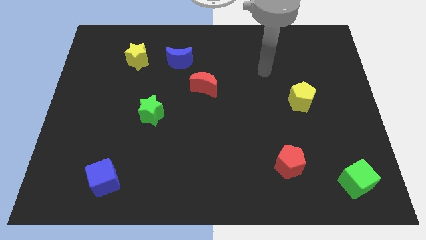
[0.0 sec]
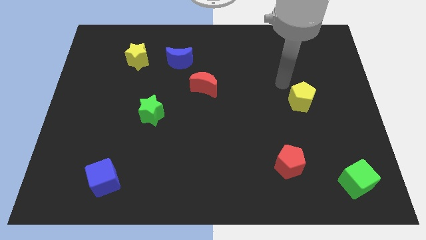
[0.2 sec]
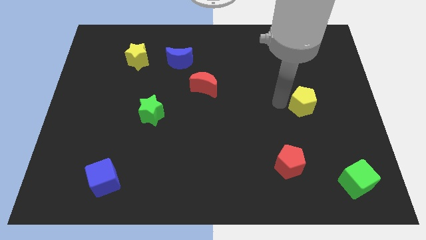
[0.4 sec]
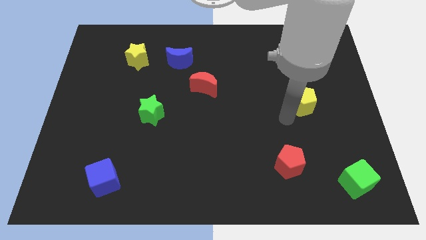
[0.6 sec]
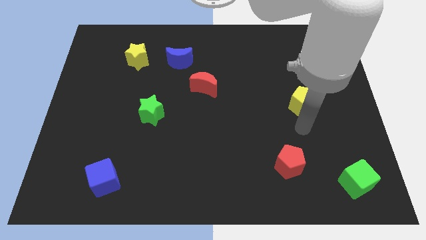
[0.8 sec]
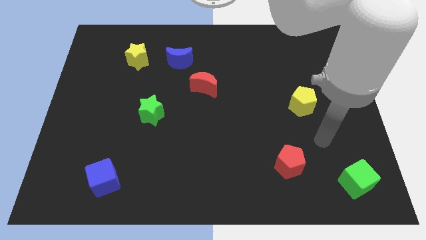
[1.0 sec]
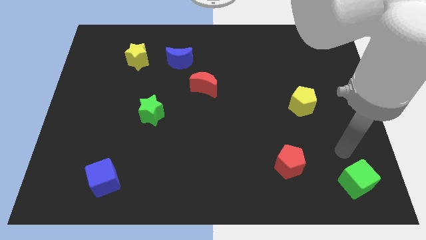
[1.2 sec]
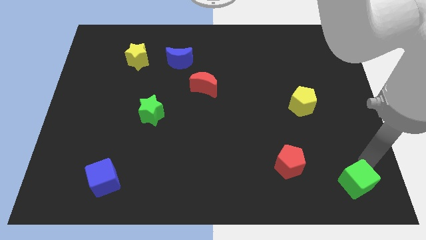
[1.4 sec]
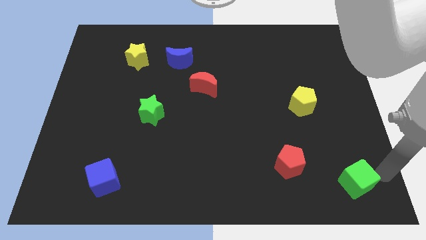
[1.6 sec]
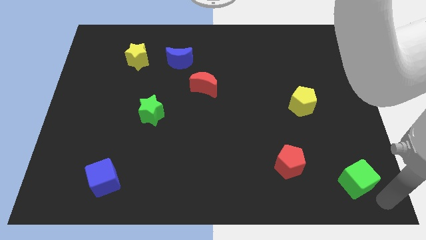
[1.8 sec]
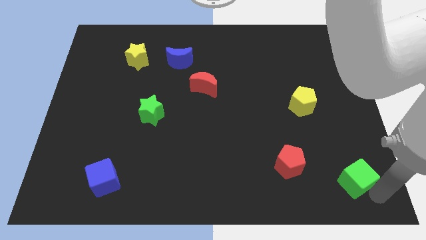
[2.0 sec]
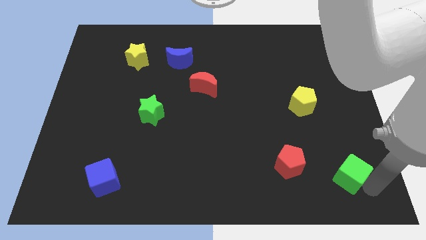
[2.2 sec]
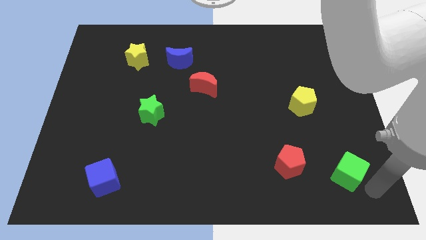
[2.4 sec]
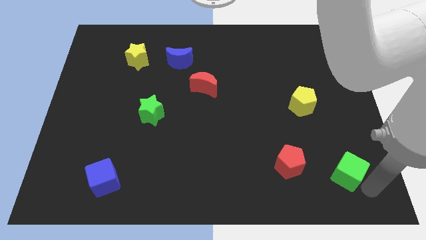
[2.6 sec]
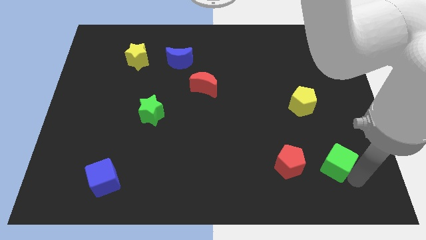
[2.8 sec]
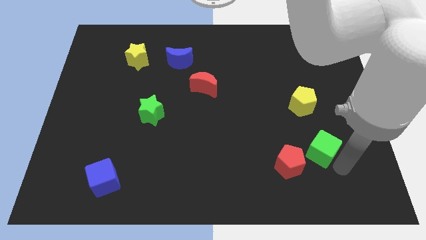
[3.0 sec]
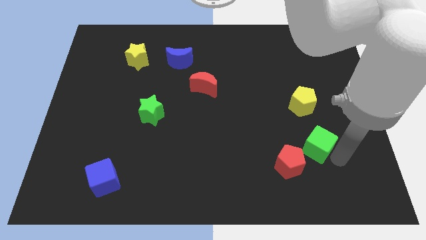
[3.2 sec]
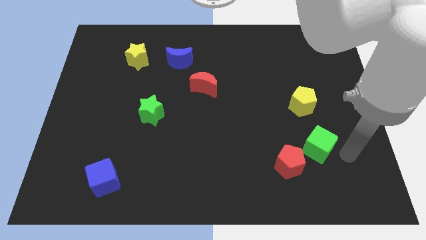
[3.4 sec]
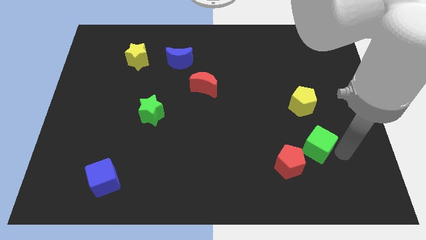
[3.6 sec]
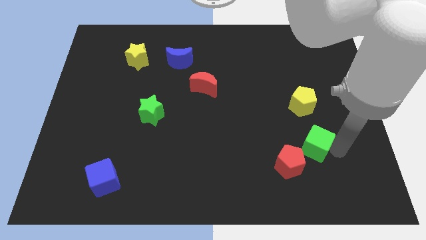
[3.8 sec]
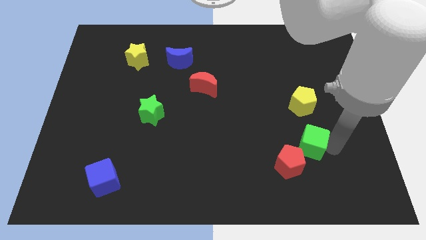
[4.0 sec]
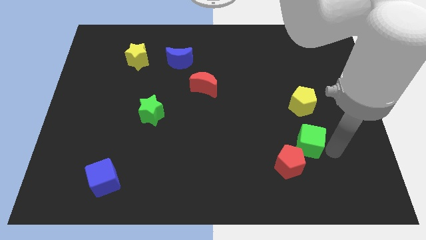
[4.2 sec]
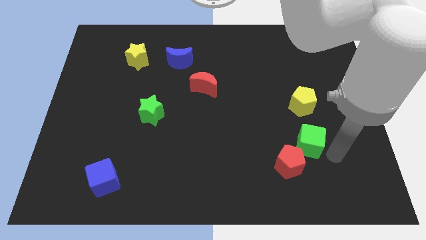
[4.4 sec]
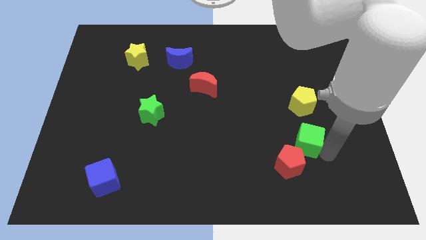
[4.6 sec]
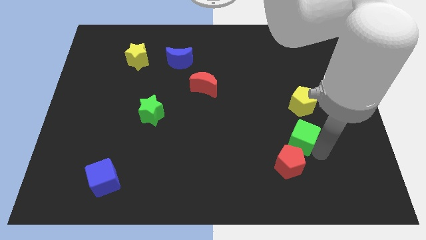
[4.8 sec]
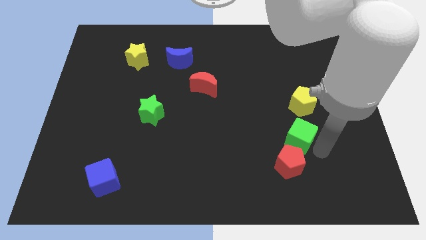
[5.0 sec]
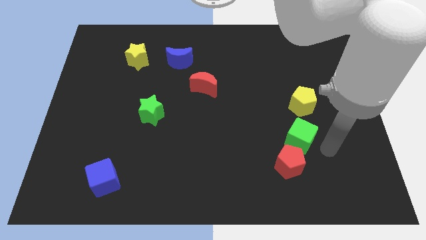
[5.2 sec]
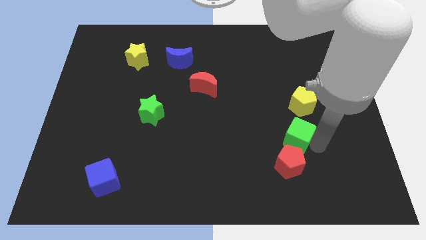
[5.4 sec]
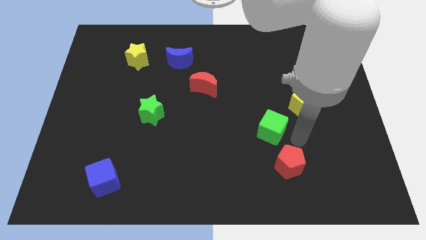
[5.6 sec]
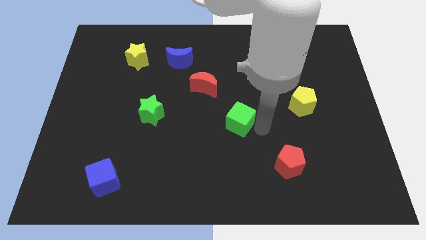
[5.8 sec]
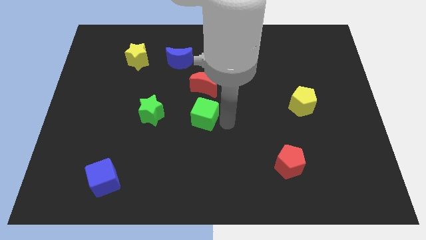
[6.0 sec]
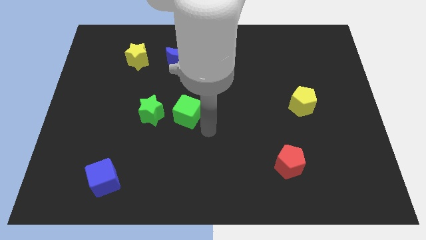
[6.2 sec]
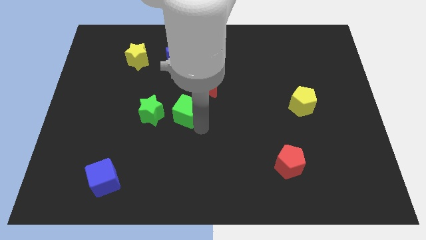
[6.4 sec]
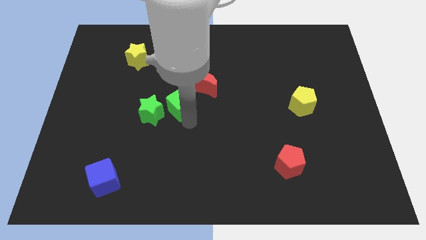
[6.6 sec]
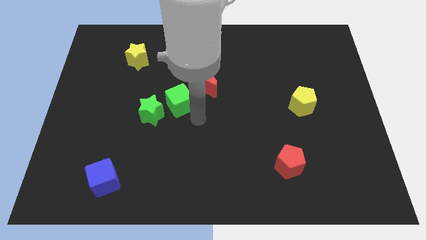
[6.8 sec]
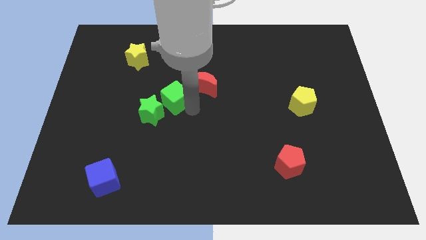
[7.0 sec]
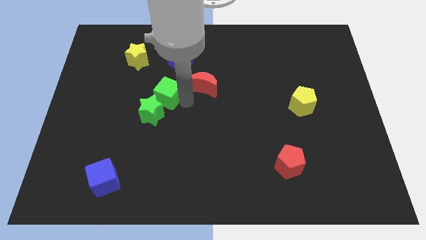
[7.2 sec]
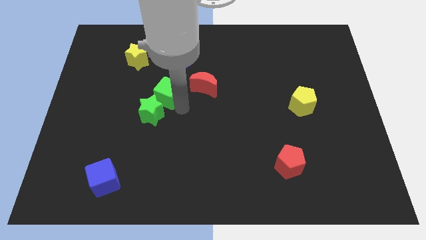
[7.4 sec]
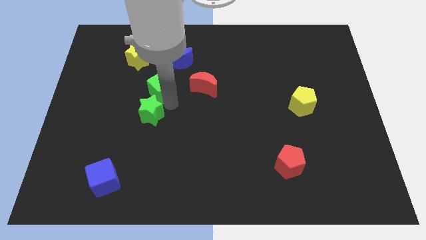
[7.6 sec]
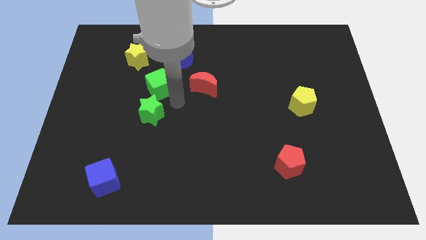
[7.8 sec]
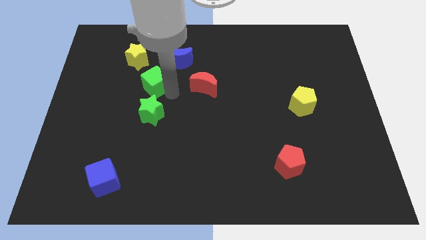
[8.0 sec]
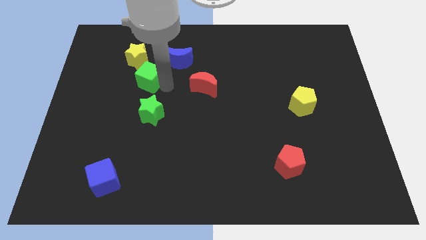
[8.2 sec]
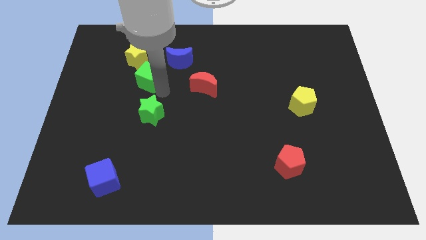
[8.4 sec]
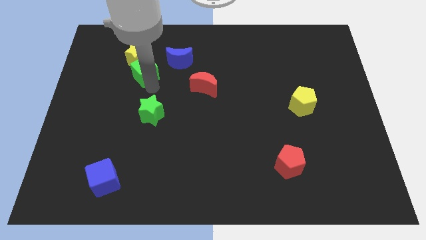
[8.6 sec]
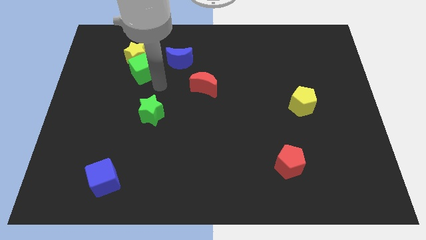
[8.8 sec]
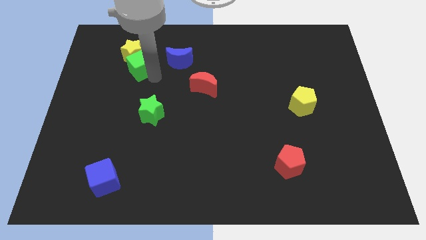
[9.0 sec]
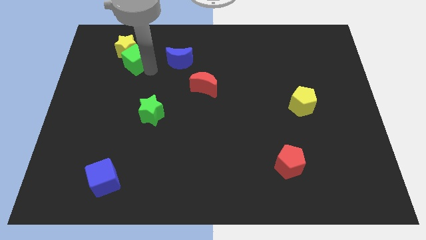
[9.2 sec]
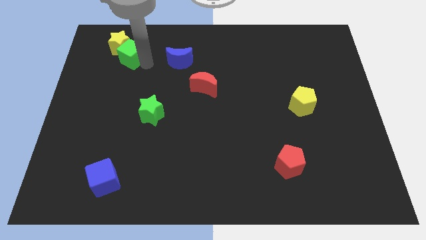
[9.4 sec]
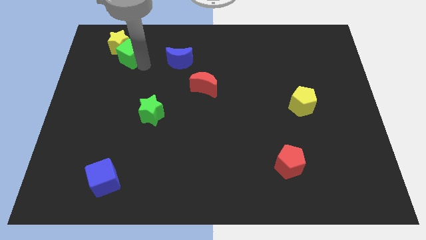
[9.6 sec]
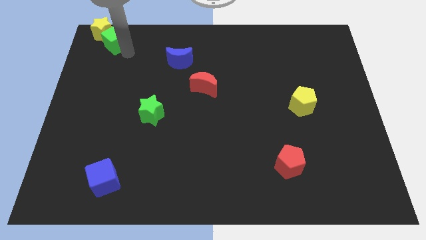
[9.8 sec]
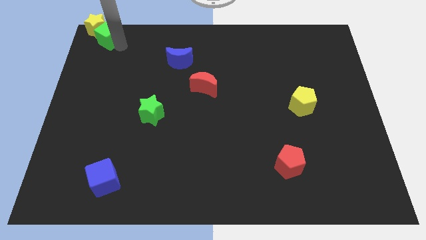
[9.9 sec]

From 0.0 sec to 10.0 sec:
slide the green cube to the top left

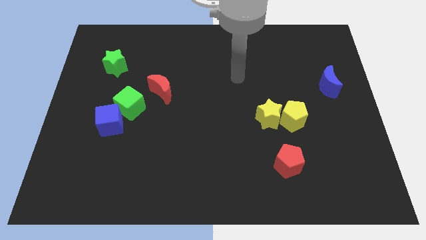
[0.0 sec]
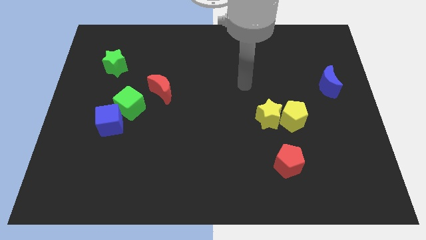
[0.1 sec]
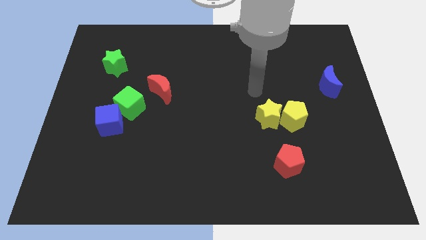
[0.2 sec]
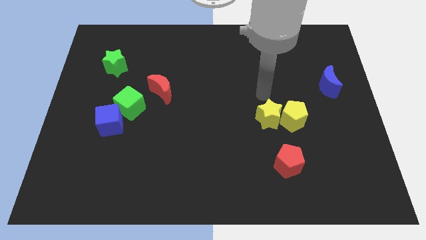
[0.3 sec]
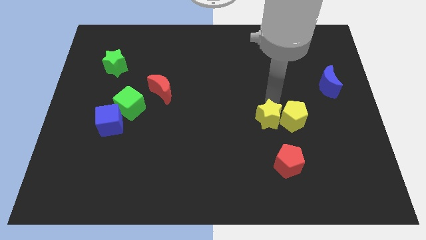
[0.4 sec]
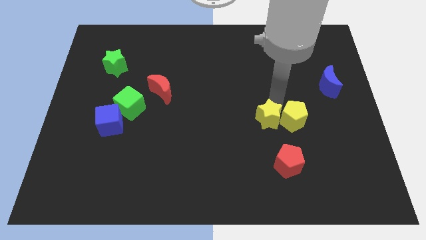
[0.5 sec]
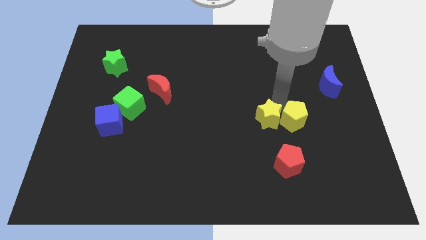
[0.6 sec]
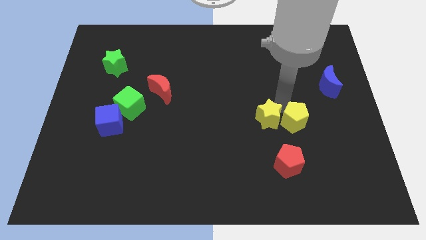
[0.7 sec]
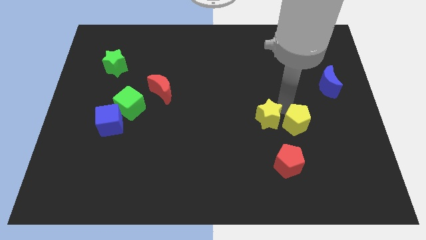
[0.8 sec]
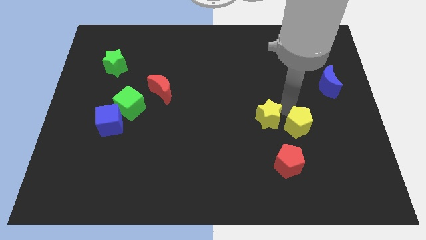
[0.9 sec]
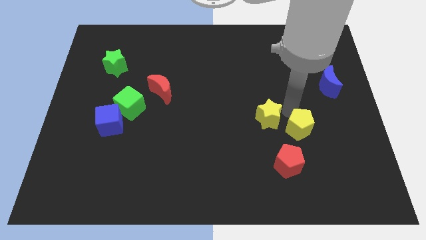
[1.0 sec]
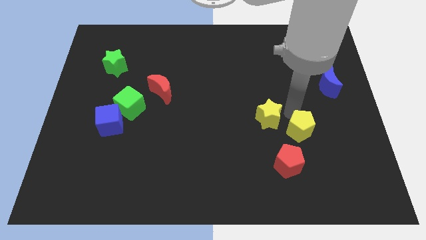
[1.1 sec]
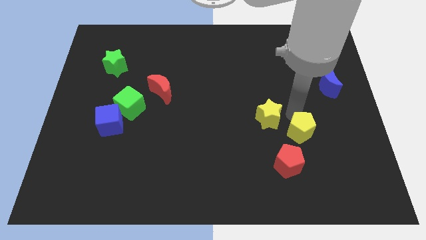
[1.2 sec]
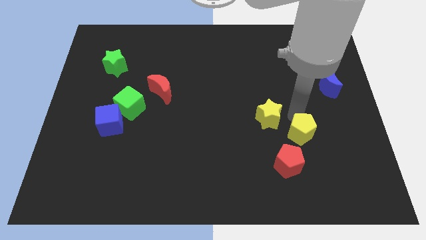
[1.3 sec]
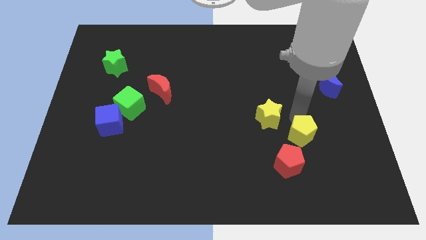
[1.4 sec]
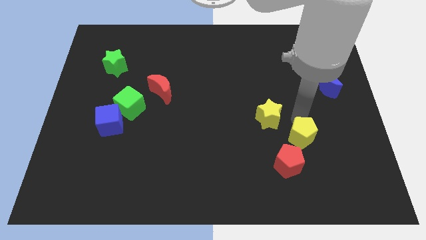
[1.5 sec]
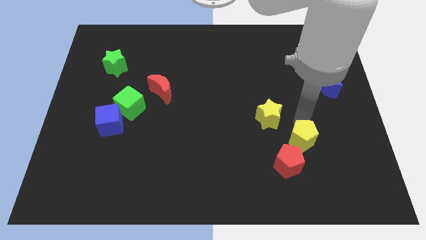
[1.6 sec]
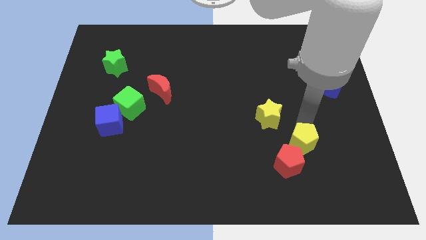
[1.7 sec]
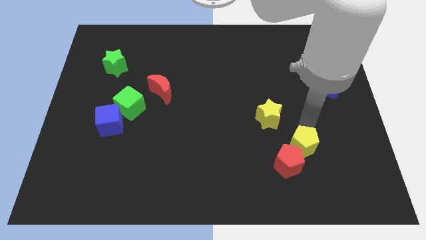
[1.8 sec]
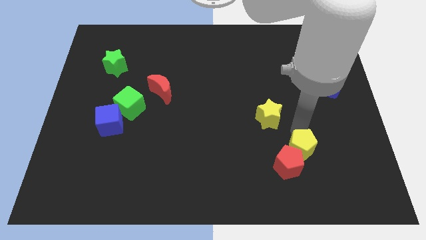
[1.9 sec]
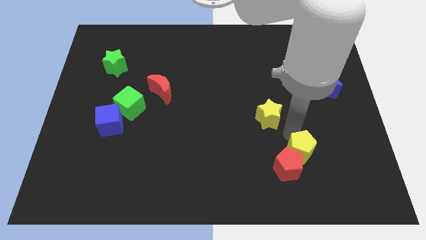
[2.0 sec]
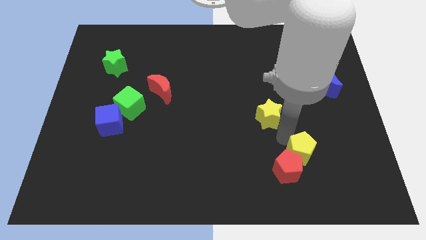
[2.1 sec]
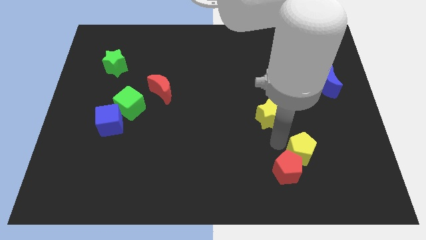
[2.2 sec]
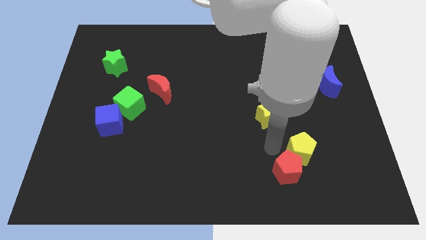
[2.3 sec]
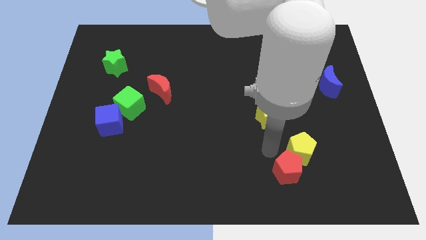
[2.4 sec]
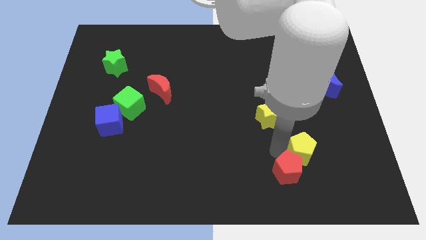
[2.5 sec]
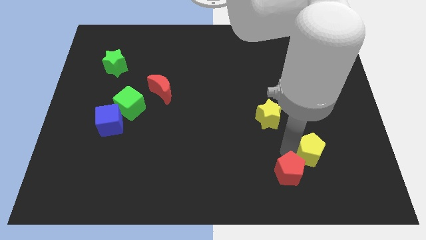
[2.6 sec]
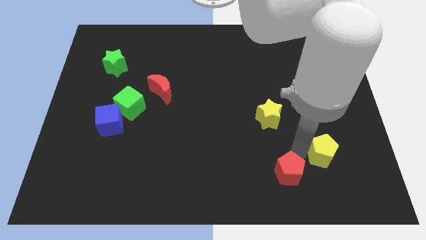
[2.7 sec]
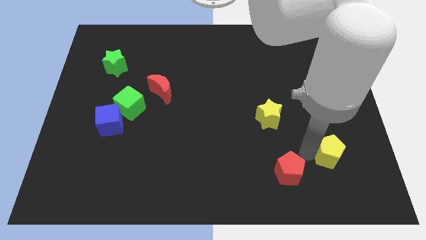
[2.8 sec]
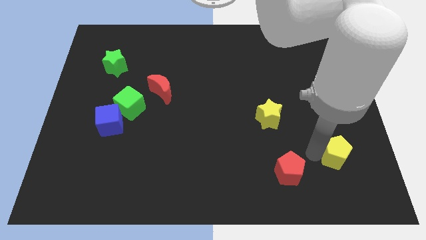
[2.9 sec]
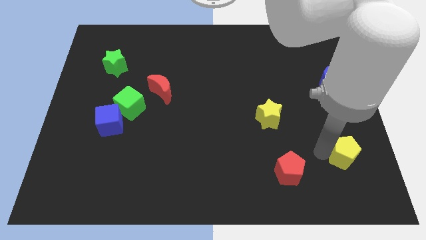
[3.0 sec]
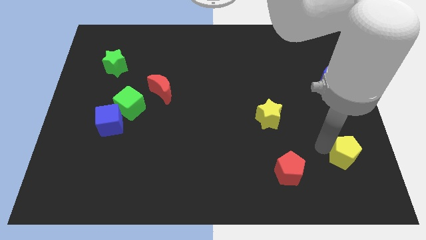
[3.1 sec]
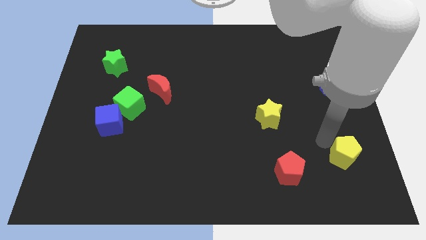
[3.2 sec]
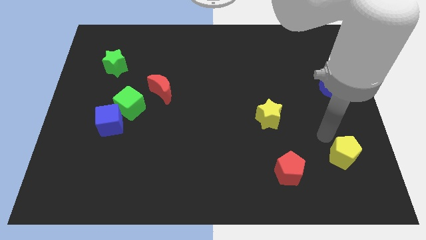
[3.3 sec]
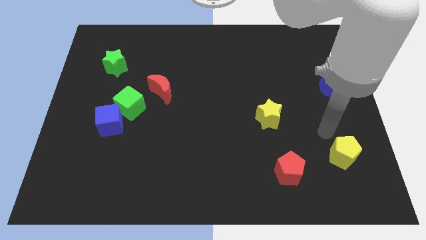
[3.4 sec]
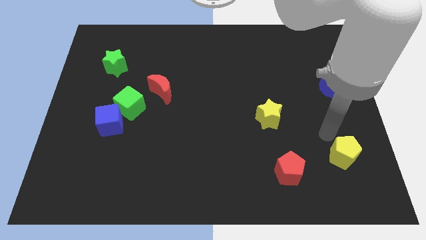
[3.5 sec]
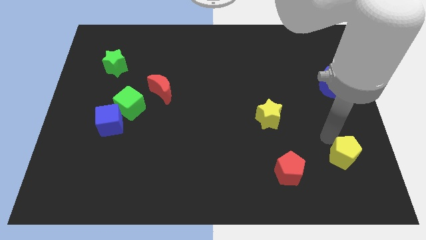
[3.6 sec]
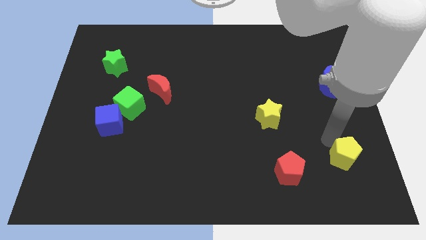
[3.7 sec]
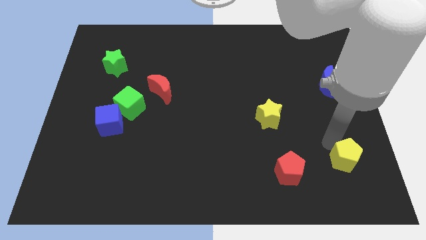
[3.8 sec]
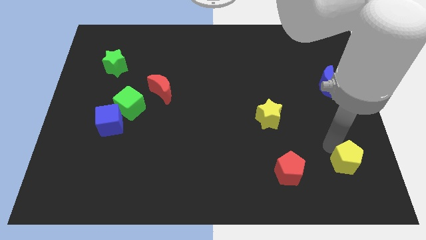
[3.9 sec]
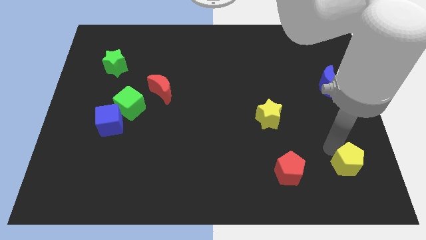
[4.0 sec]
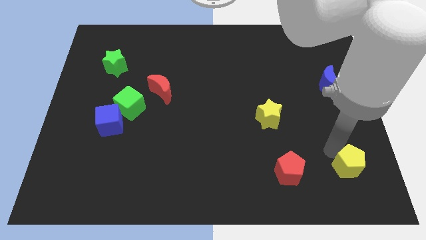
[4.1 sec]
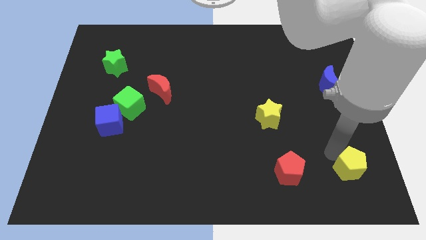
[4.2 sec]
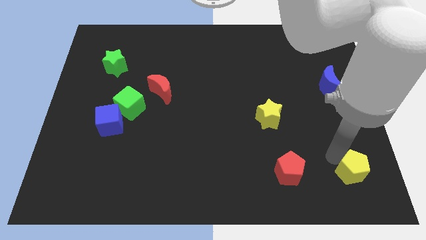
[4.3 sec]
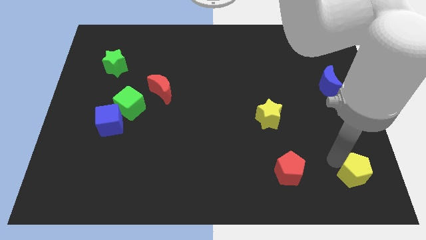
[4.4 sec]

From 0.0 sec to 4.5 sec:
push the yellow pentagon to the bottom right of the board
